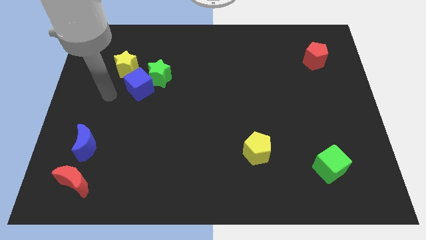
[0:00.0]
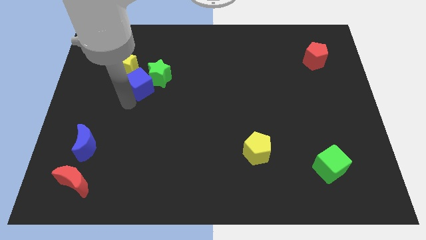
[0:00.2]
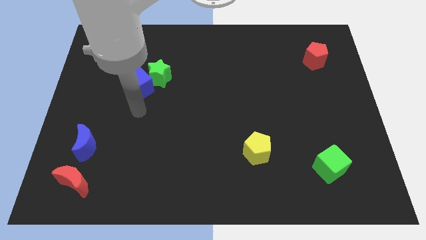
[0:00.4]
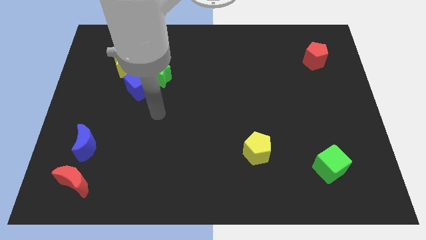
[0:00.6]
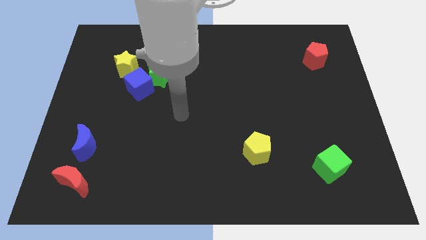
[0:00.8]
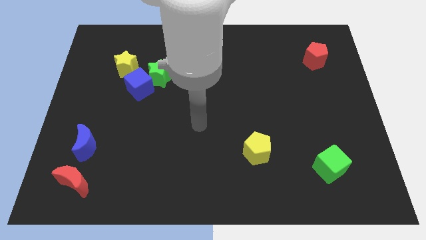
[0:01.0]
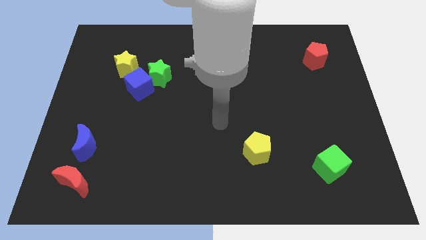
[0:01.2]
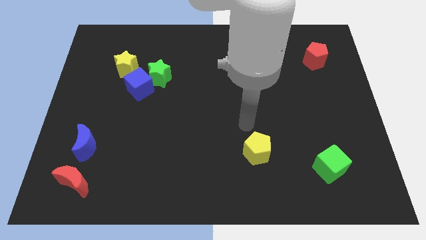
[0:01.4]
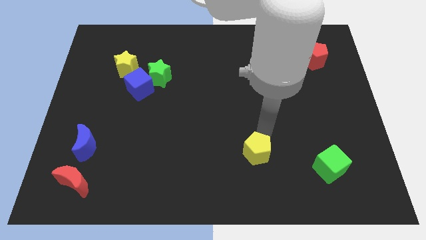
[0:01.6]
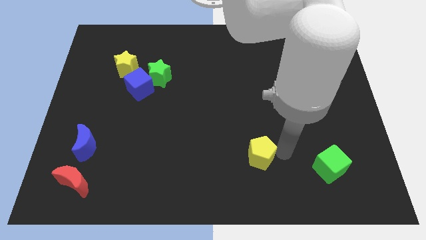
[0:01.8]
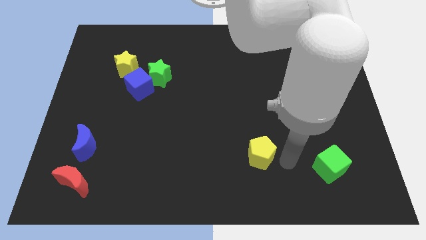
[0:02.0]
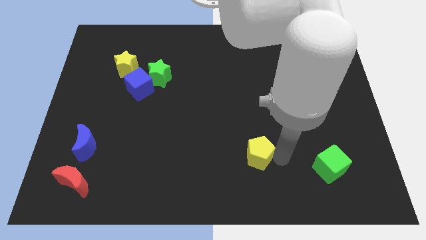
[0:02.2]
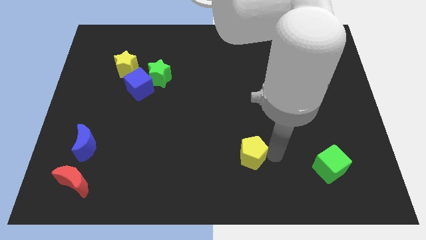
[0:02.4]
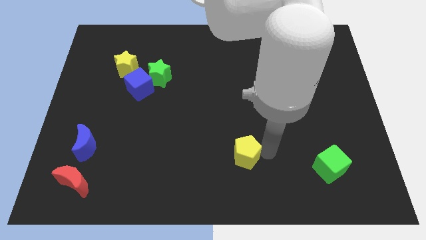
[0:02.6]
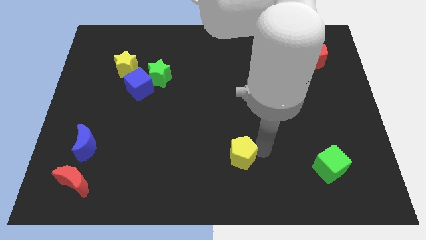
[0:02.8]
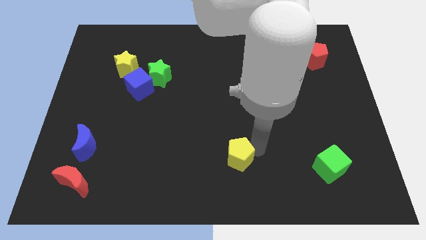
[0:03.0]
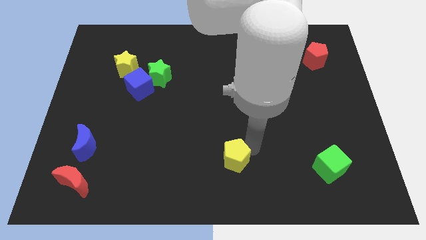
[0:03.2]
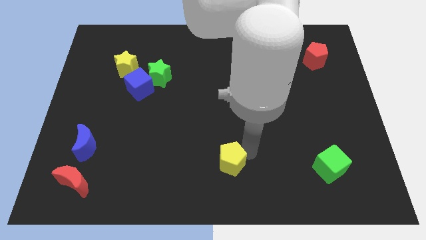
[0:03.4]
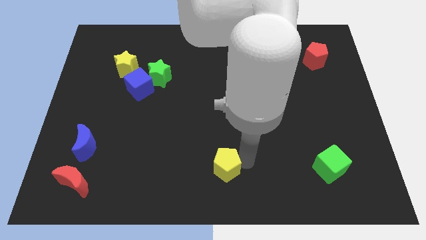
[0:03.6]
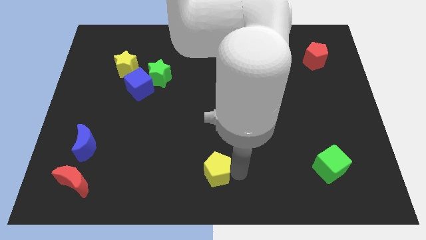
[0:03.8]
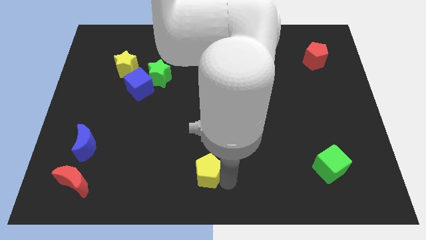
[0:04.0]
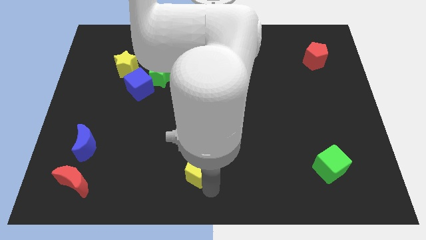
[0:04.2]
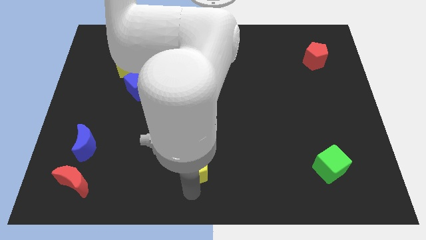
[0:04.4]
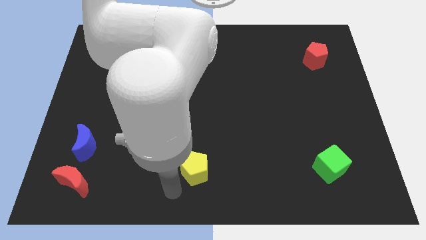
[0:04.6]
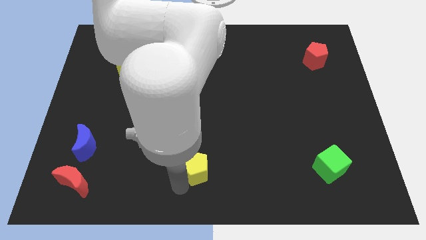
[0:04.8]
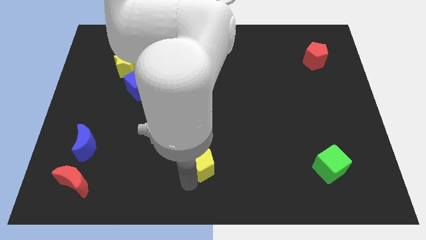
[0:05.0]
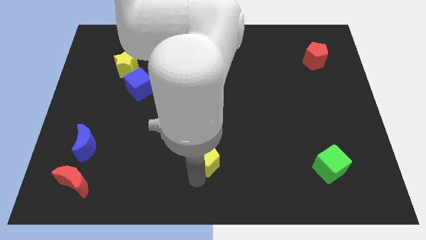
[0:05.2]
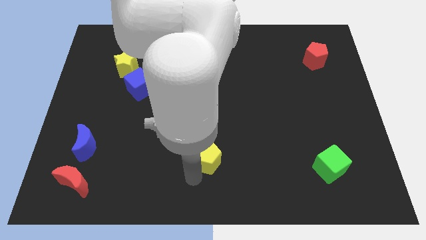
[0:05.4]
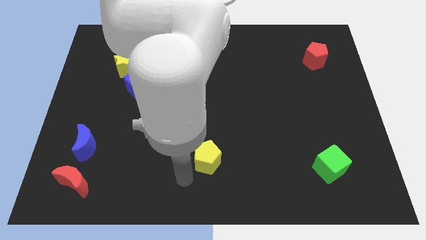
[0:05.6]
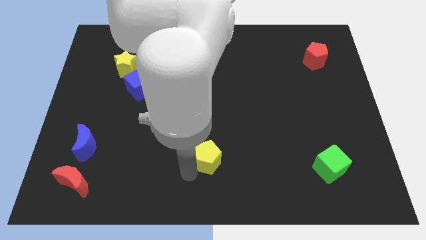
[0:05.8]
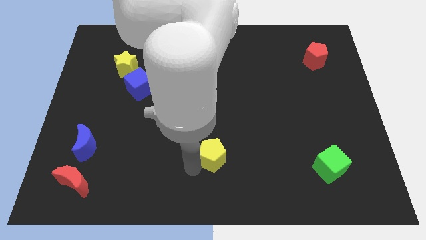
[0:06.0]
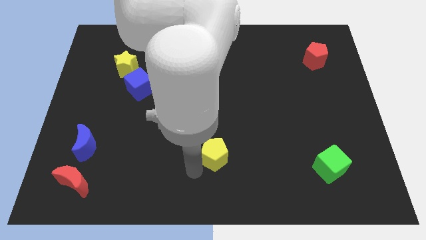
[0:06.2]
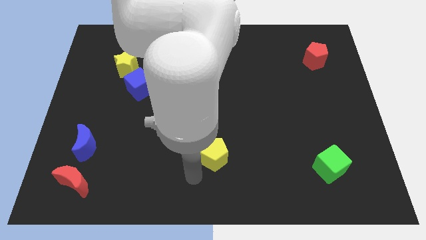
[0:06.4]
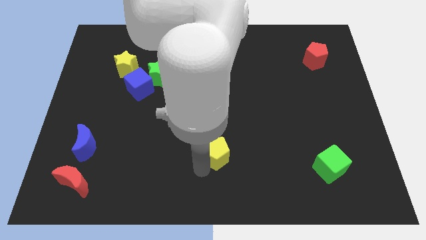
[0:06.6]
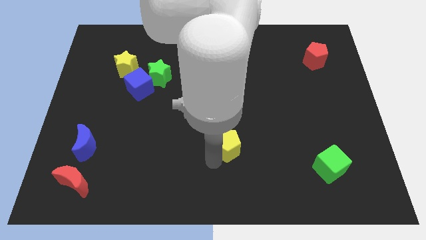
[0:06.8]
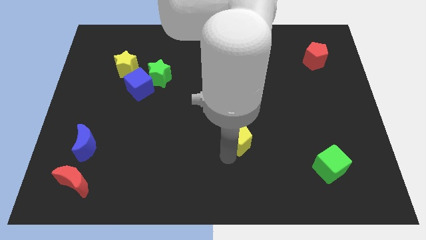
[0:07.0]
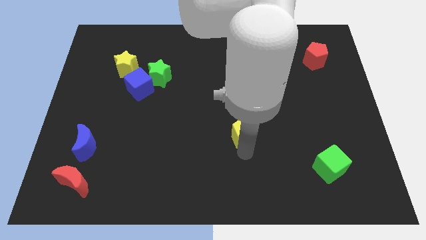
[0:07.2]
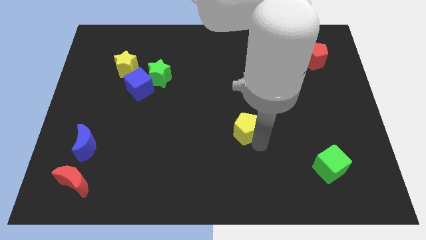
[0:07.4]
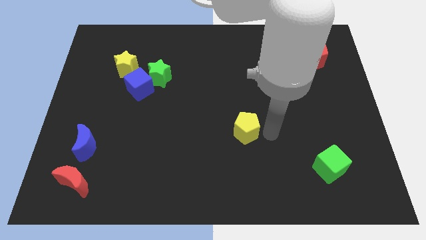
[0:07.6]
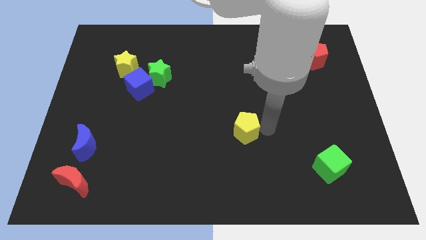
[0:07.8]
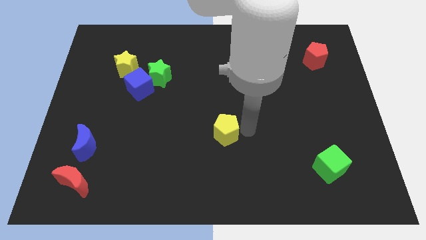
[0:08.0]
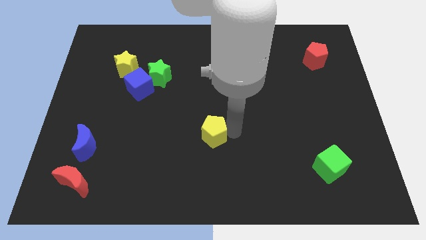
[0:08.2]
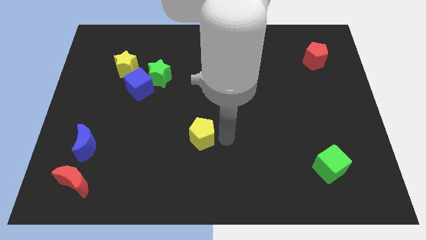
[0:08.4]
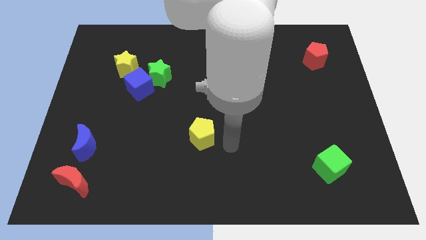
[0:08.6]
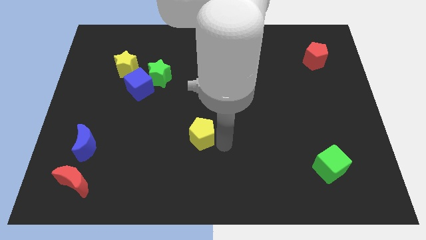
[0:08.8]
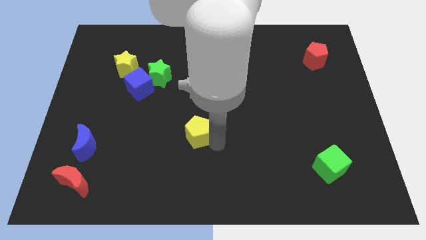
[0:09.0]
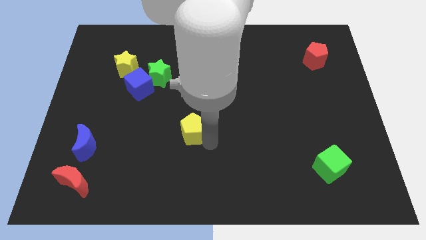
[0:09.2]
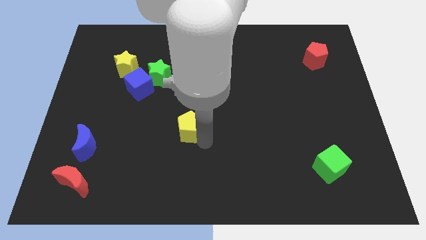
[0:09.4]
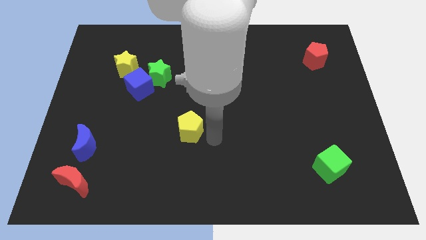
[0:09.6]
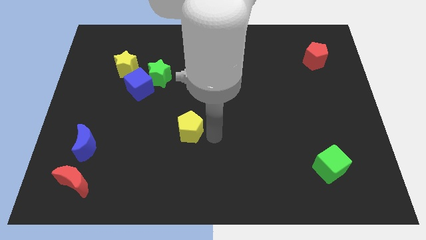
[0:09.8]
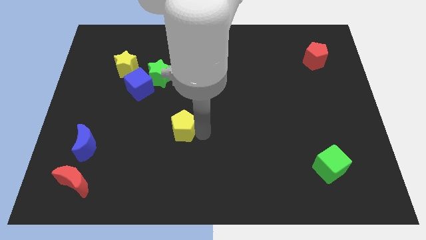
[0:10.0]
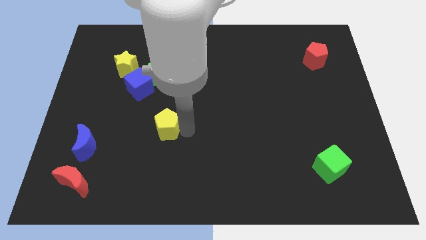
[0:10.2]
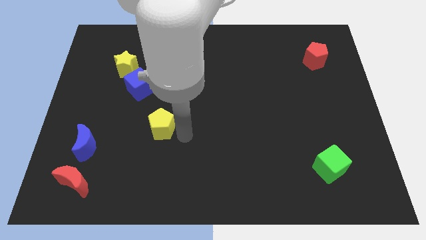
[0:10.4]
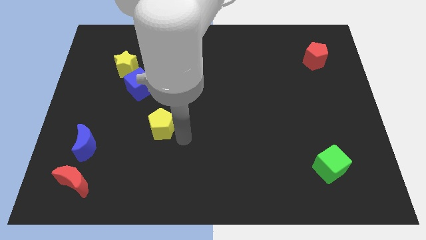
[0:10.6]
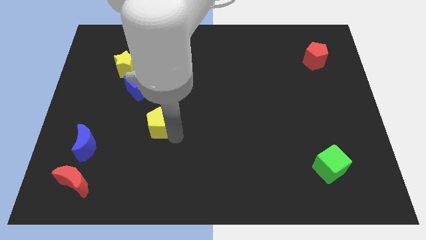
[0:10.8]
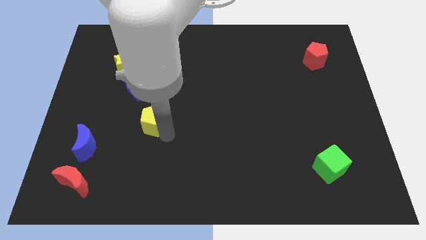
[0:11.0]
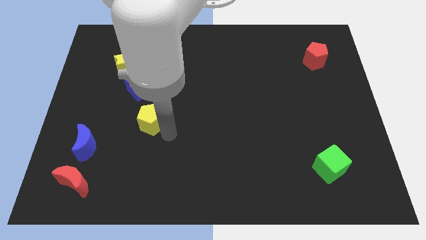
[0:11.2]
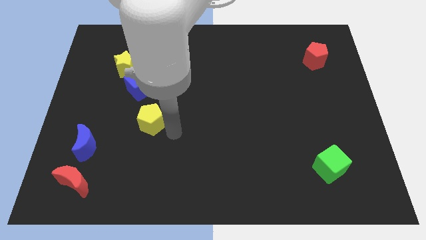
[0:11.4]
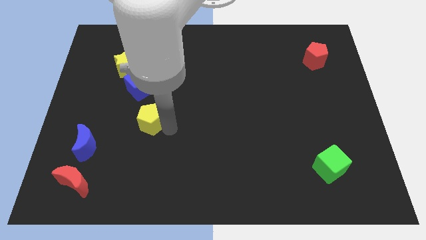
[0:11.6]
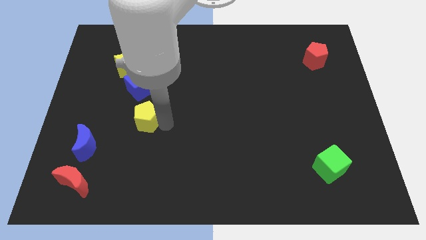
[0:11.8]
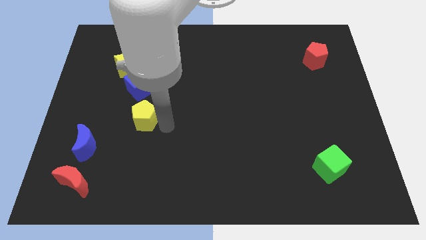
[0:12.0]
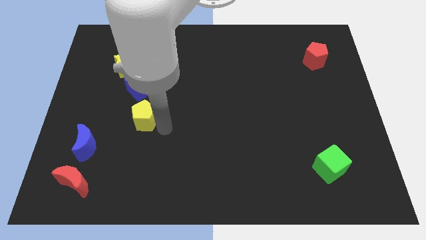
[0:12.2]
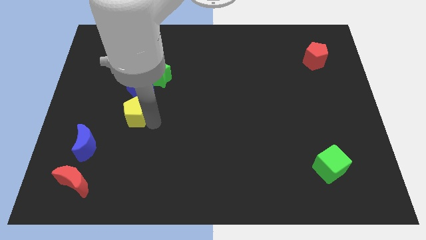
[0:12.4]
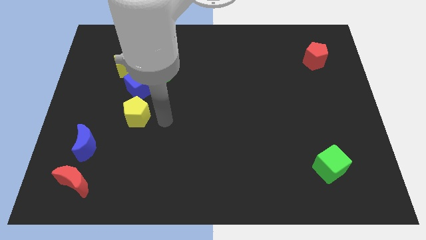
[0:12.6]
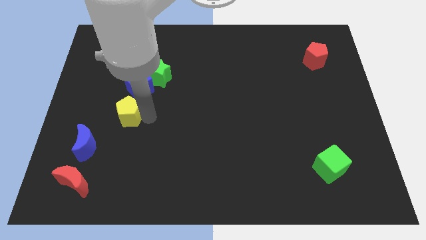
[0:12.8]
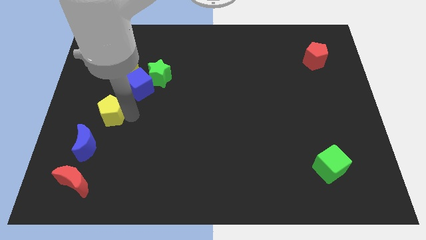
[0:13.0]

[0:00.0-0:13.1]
move the yellow pentagon to the top of the blue moon
